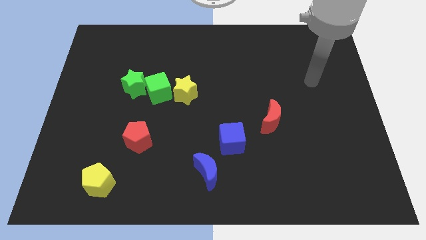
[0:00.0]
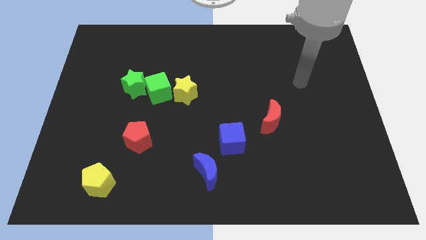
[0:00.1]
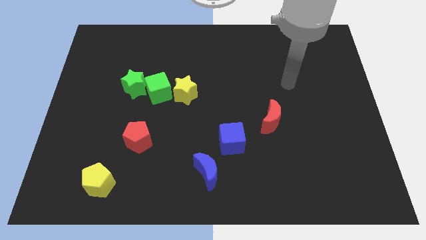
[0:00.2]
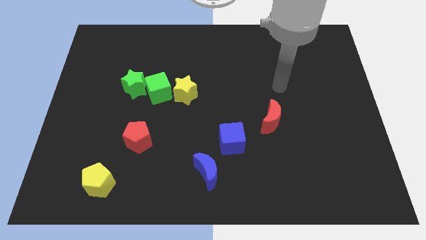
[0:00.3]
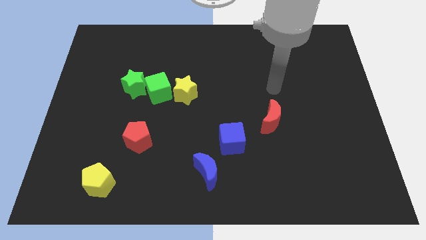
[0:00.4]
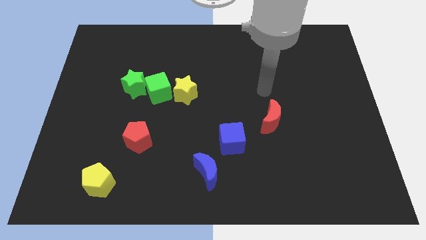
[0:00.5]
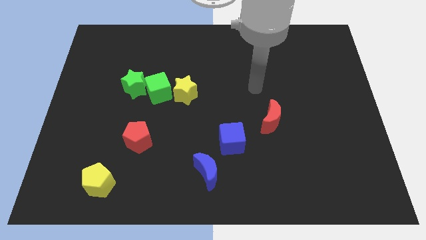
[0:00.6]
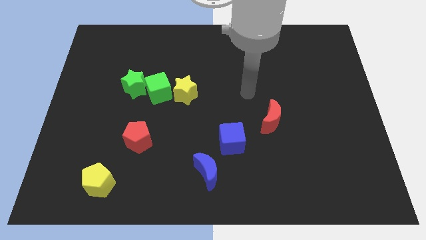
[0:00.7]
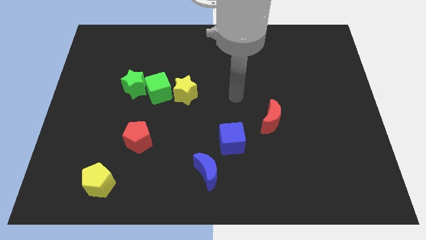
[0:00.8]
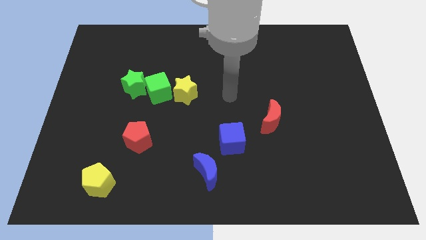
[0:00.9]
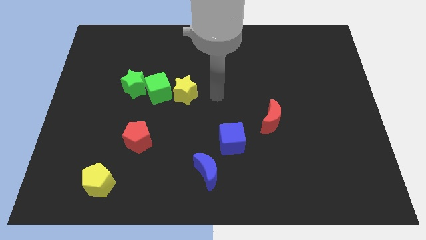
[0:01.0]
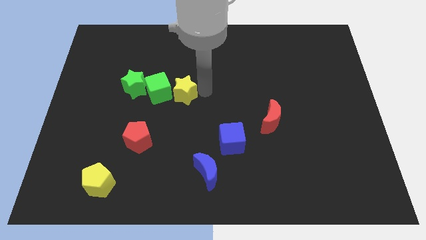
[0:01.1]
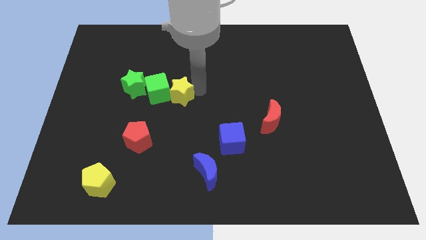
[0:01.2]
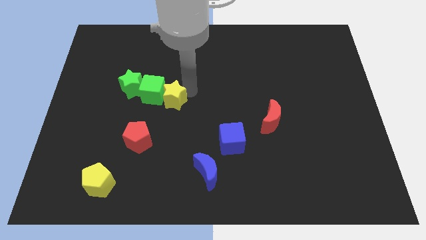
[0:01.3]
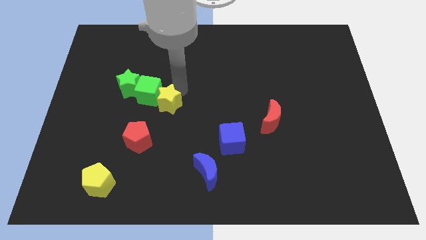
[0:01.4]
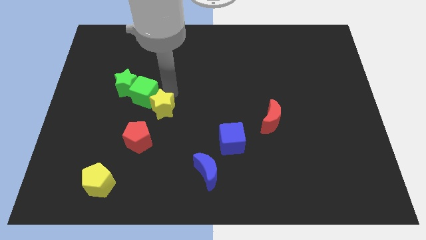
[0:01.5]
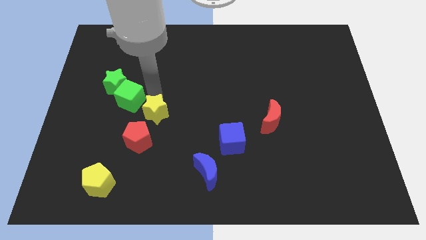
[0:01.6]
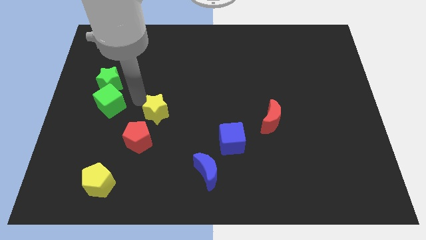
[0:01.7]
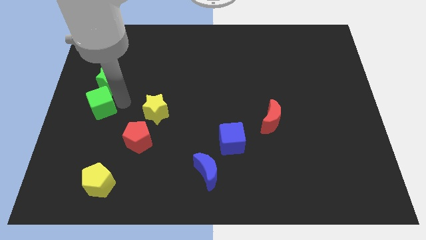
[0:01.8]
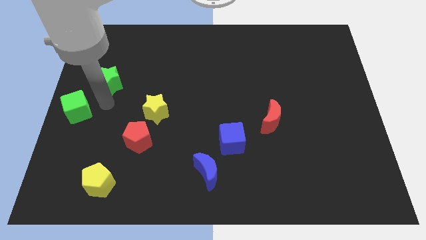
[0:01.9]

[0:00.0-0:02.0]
separate the green star from the green cube

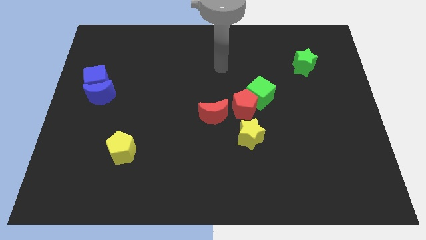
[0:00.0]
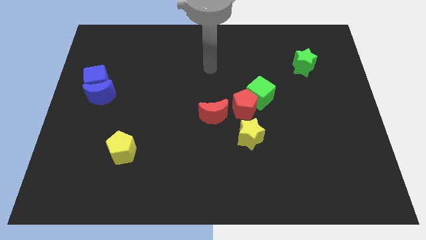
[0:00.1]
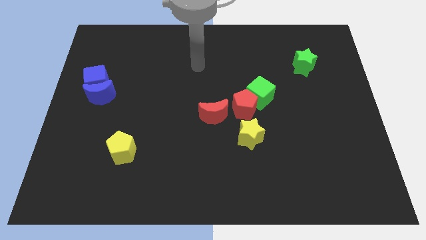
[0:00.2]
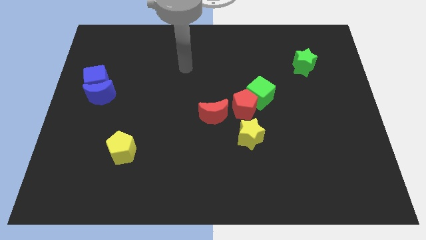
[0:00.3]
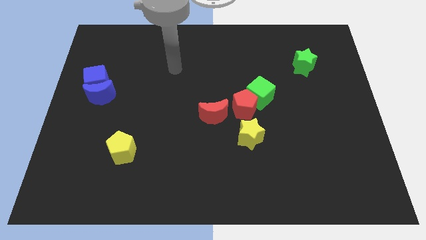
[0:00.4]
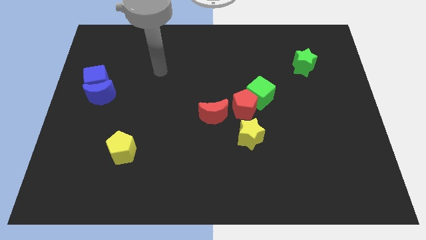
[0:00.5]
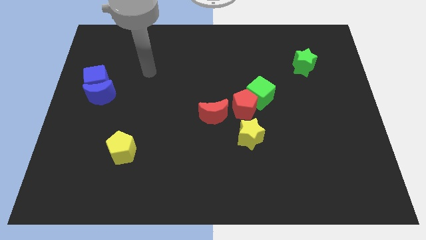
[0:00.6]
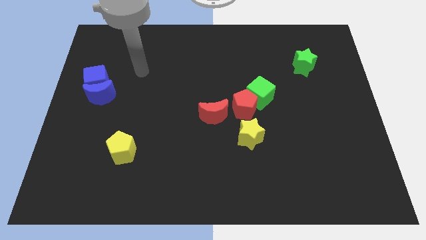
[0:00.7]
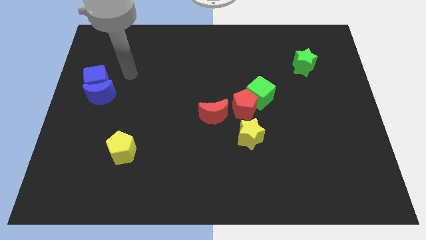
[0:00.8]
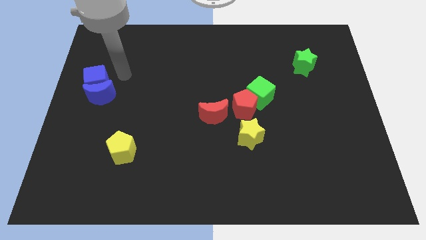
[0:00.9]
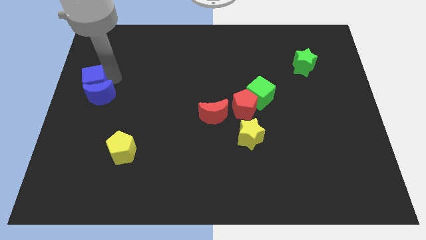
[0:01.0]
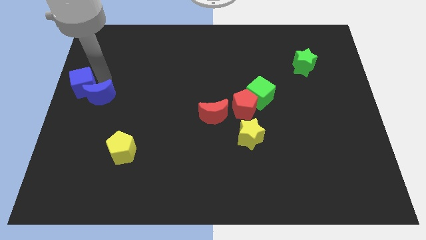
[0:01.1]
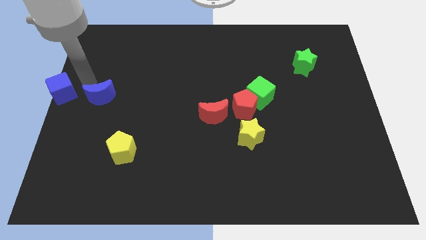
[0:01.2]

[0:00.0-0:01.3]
move the blue moon away from the blue cube

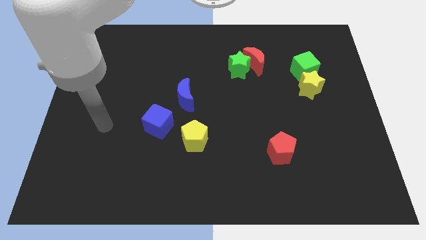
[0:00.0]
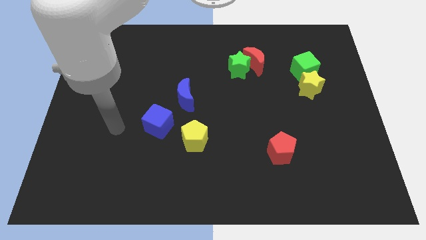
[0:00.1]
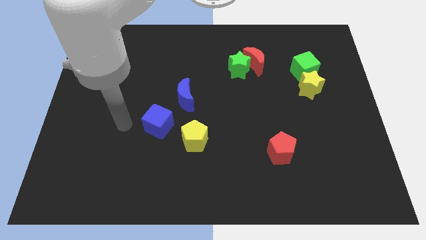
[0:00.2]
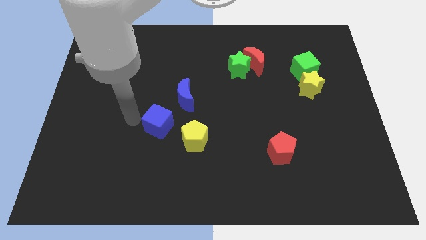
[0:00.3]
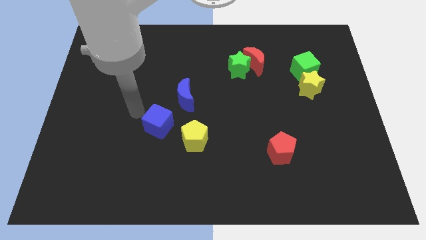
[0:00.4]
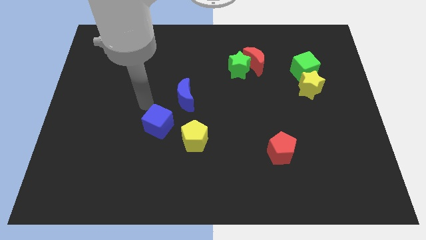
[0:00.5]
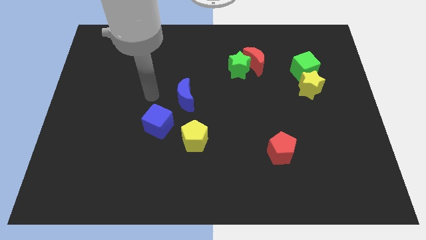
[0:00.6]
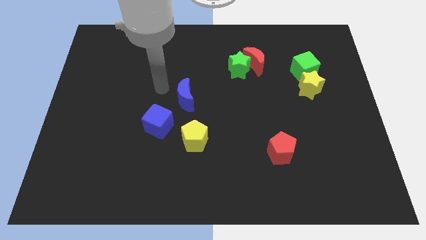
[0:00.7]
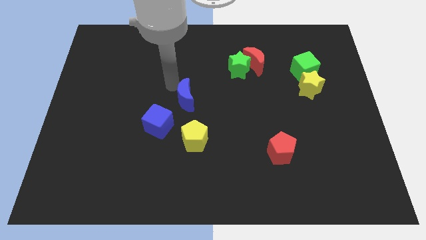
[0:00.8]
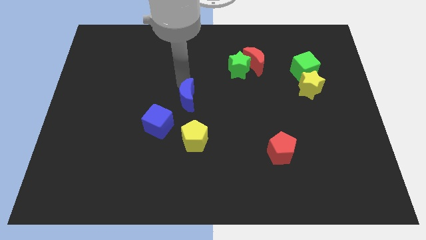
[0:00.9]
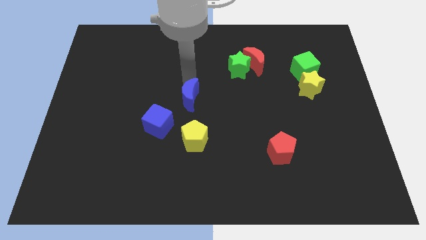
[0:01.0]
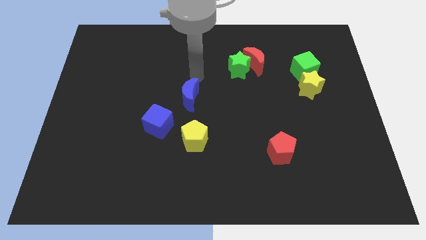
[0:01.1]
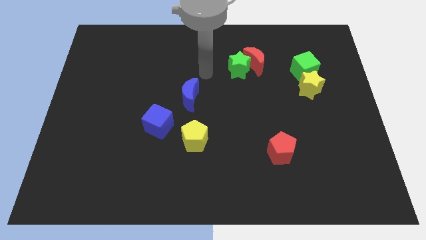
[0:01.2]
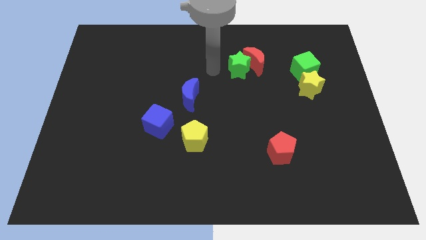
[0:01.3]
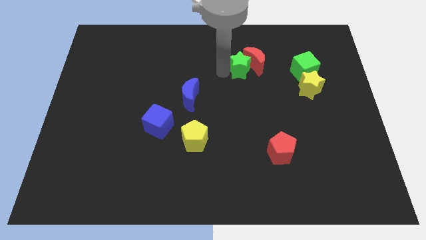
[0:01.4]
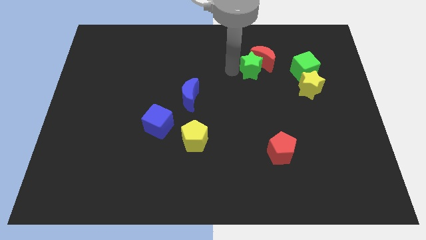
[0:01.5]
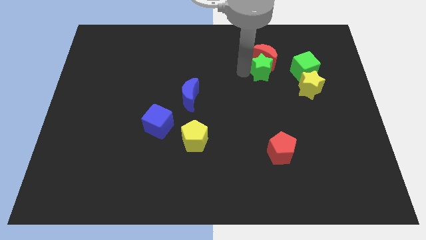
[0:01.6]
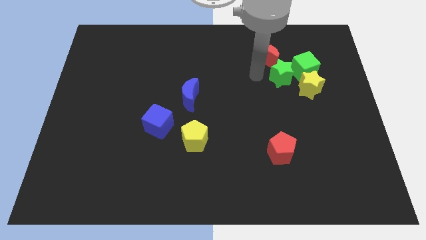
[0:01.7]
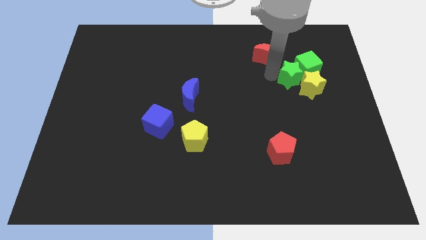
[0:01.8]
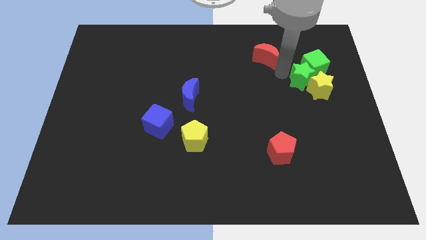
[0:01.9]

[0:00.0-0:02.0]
pull the red moon apart from the green star

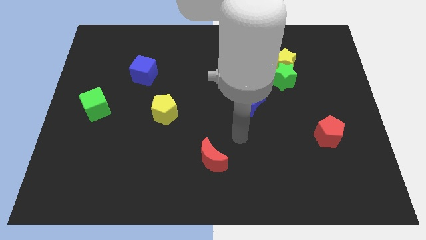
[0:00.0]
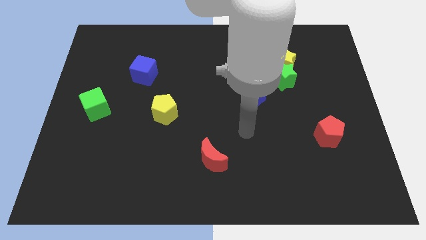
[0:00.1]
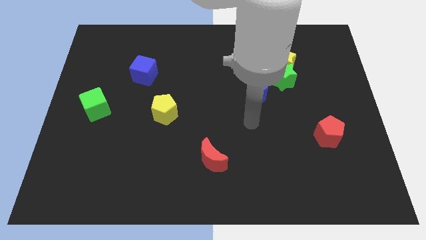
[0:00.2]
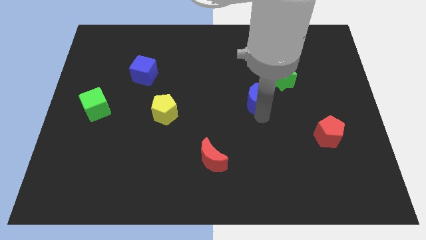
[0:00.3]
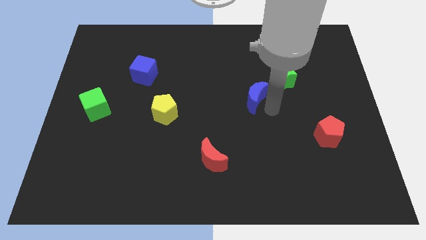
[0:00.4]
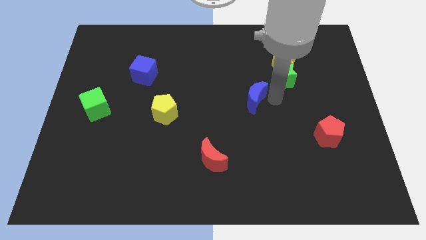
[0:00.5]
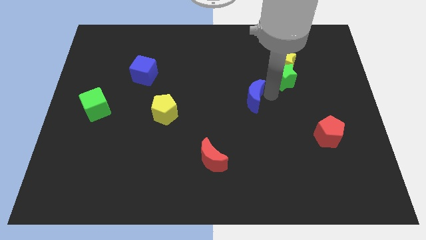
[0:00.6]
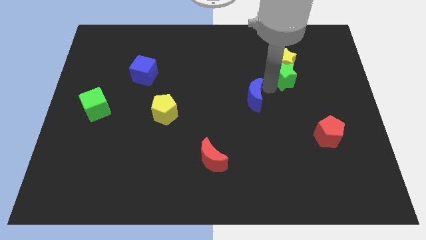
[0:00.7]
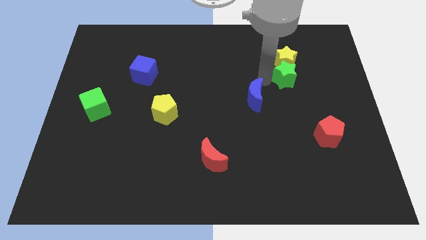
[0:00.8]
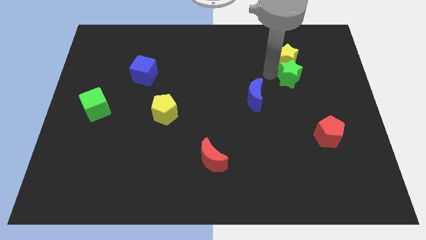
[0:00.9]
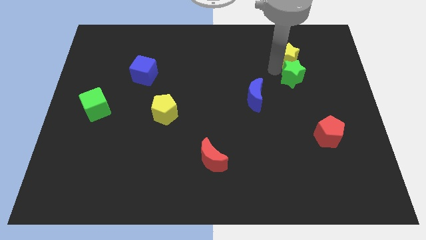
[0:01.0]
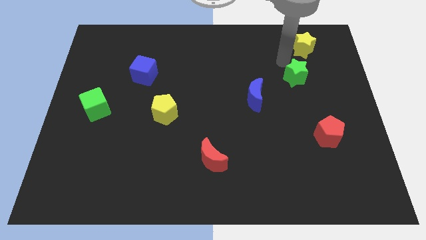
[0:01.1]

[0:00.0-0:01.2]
separate the green star from the yellow star

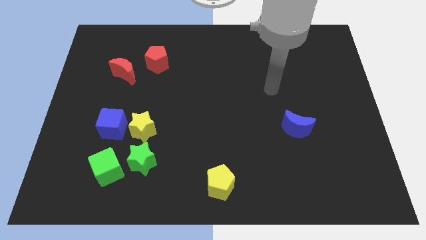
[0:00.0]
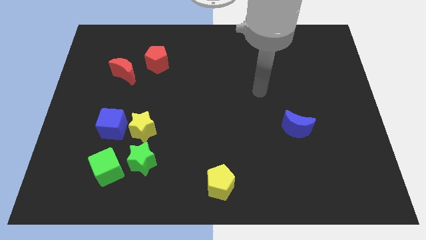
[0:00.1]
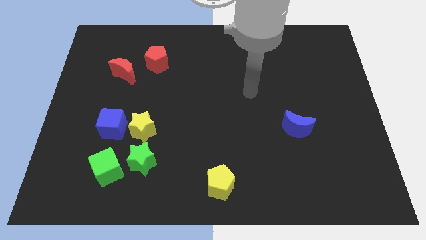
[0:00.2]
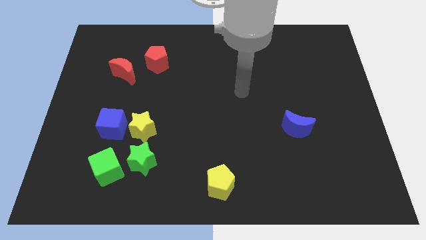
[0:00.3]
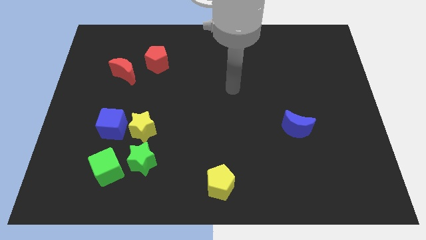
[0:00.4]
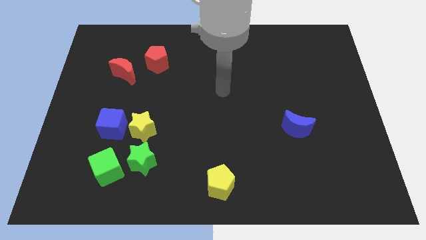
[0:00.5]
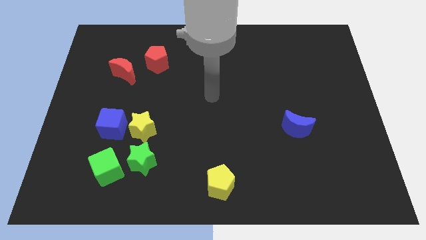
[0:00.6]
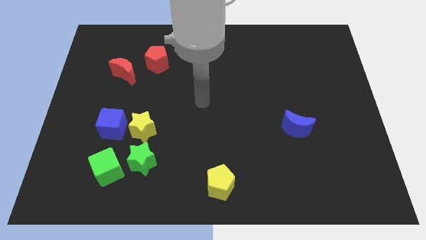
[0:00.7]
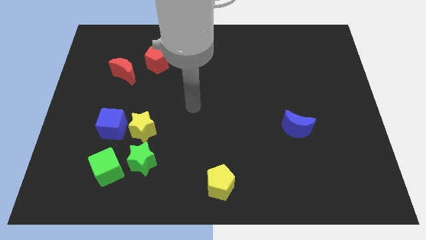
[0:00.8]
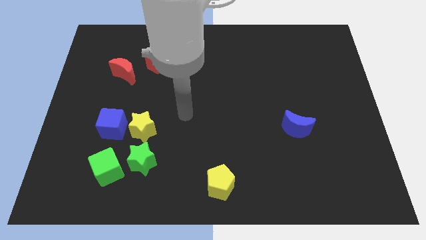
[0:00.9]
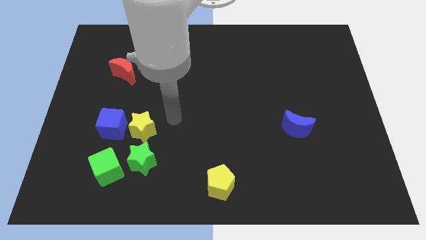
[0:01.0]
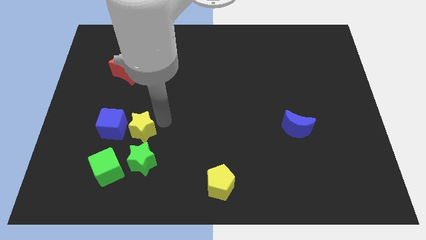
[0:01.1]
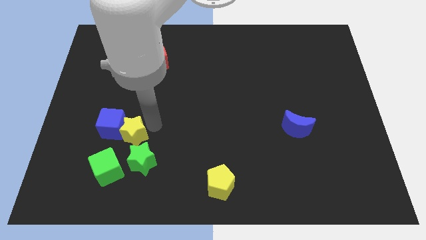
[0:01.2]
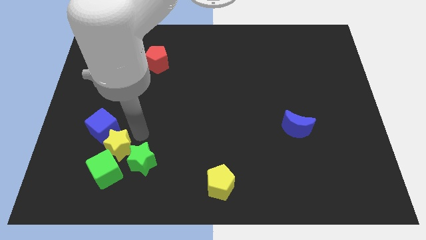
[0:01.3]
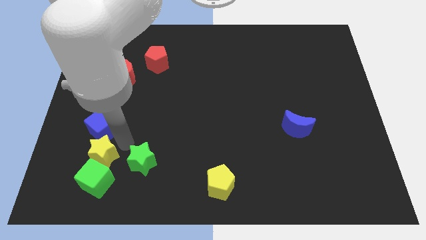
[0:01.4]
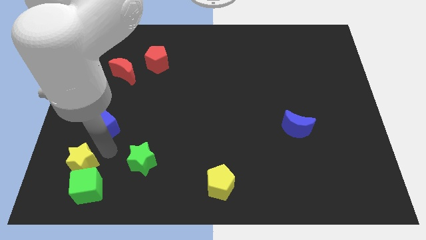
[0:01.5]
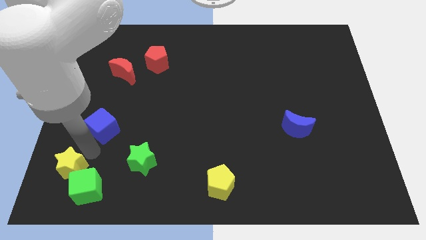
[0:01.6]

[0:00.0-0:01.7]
pull the blue cube apart from the yellow star

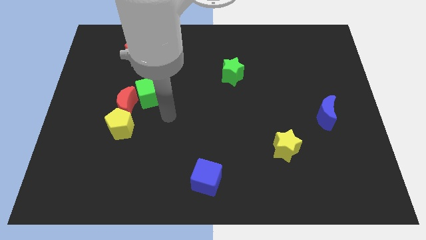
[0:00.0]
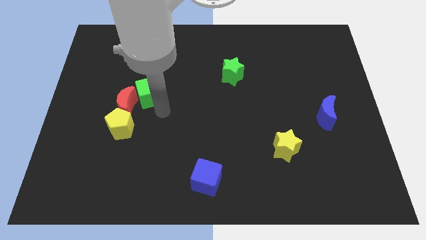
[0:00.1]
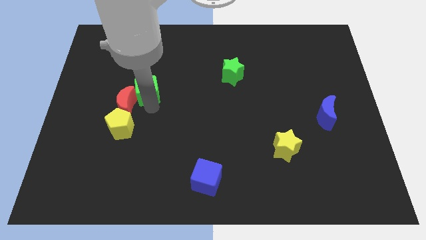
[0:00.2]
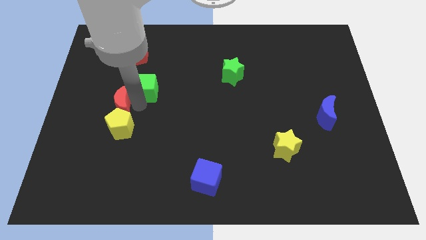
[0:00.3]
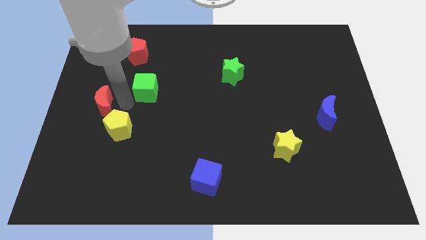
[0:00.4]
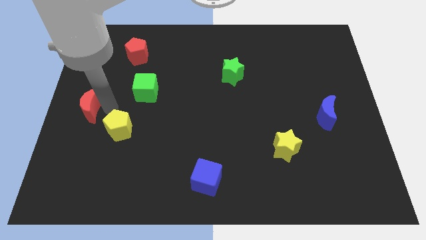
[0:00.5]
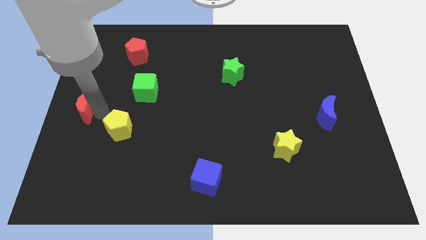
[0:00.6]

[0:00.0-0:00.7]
move the yellow pentagon away from the red moon

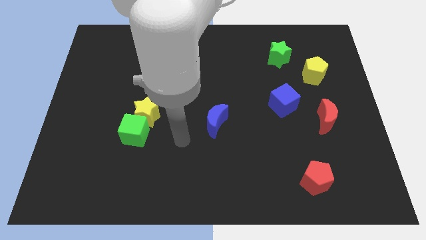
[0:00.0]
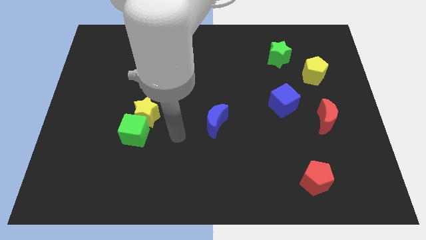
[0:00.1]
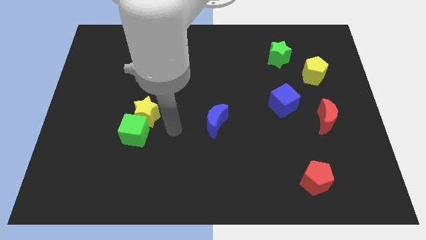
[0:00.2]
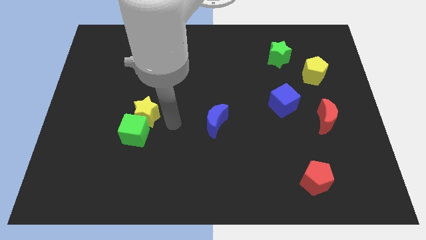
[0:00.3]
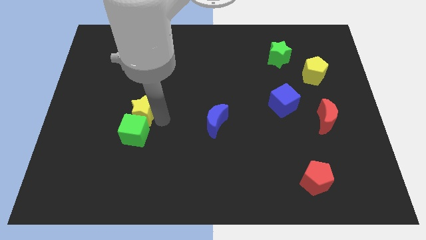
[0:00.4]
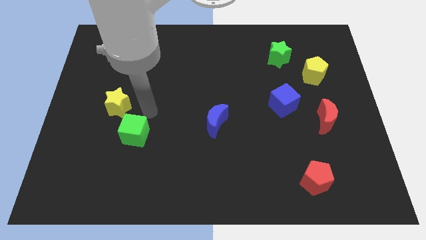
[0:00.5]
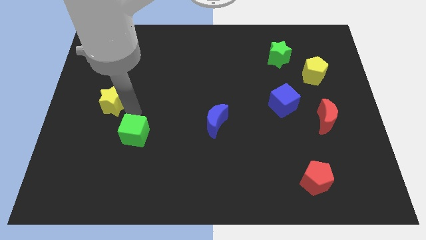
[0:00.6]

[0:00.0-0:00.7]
pull the green cube apart from the yellow star
